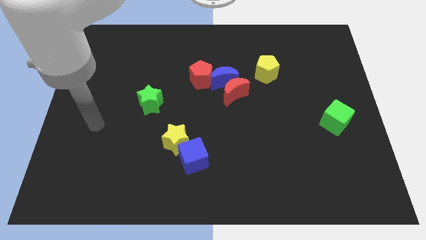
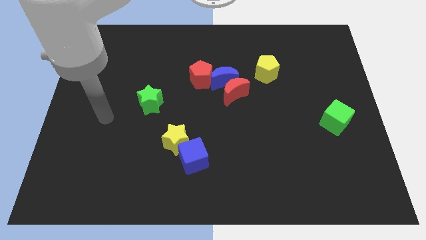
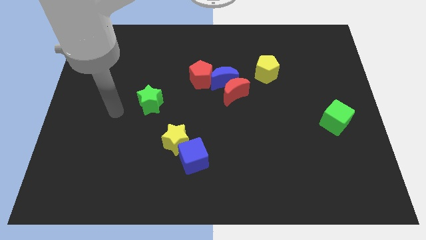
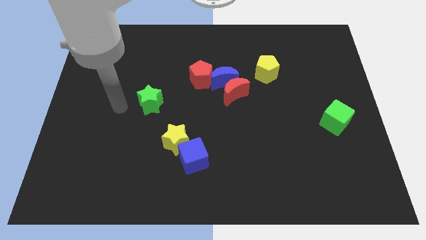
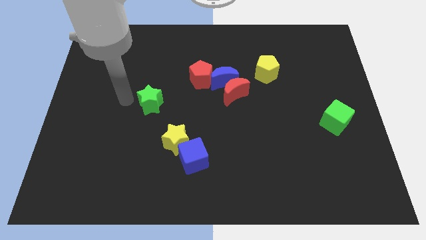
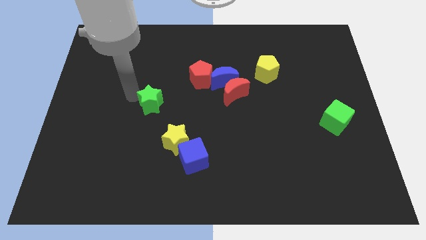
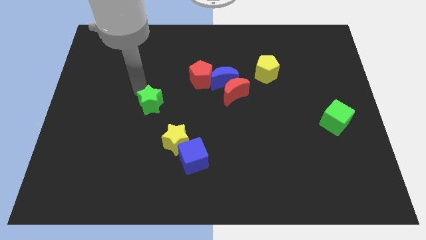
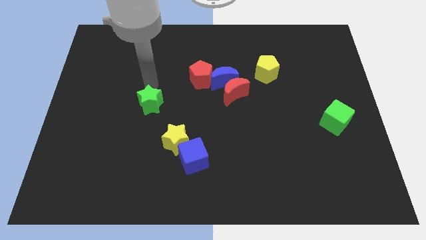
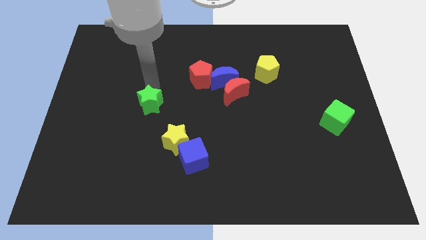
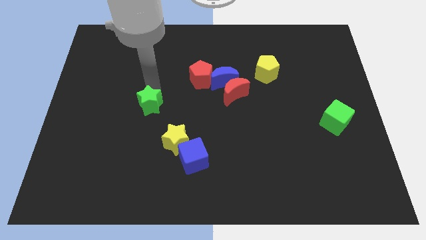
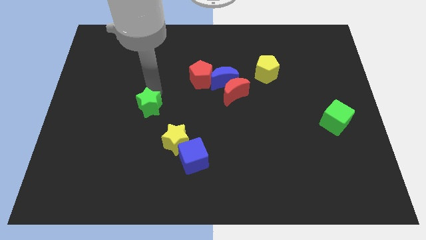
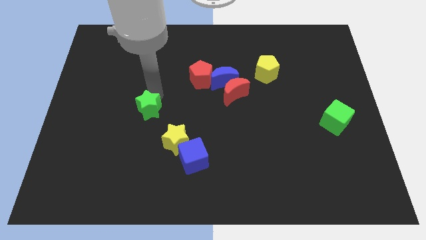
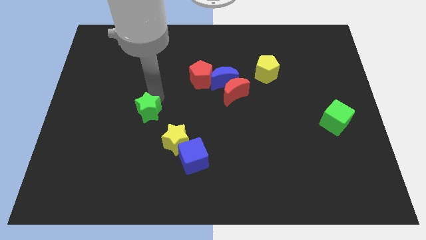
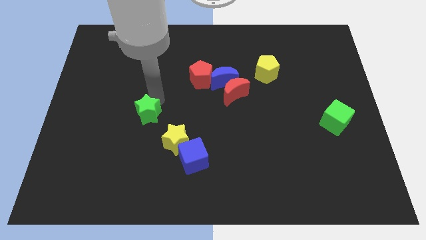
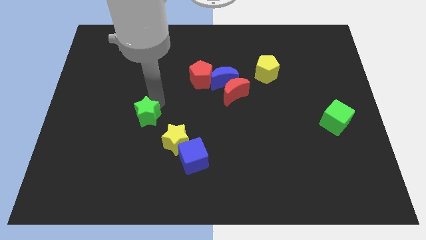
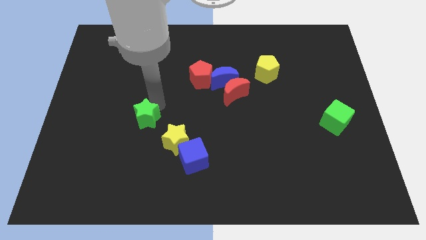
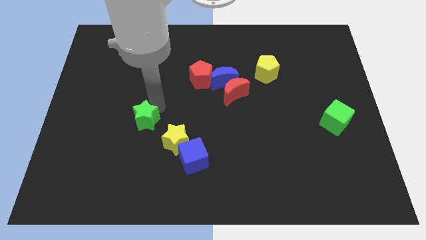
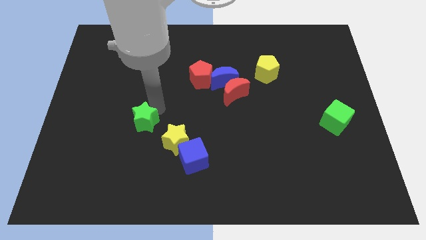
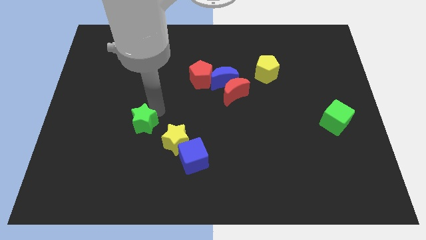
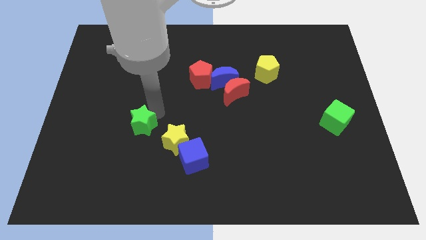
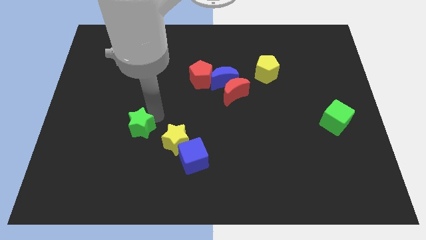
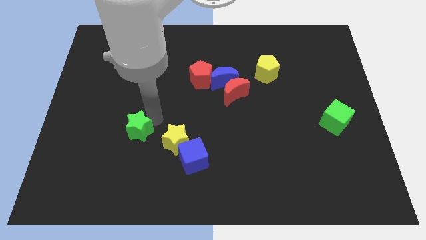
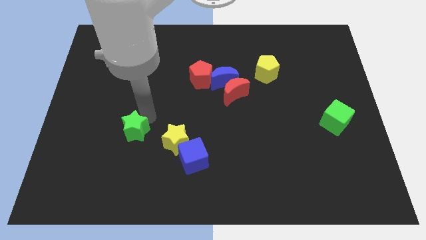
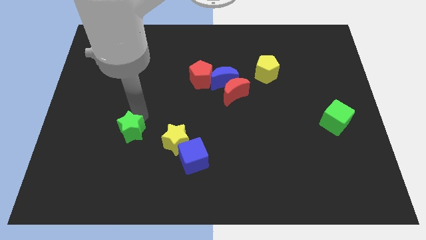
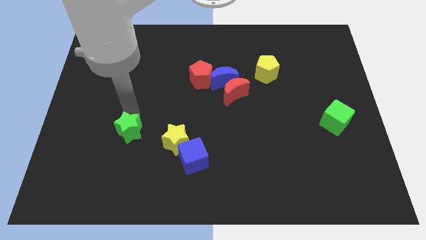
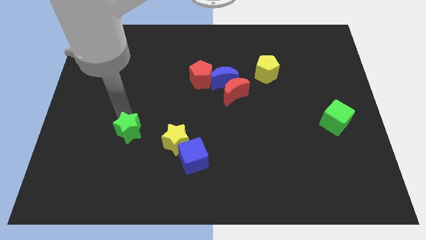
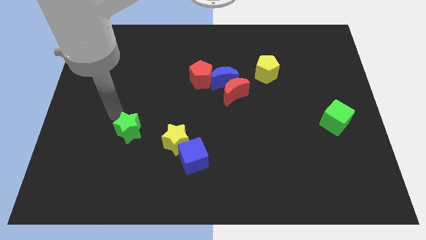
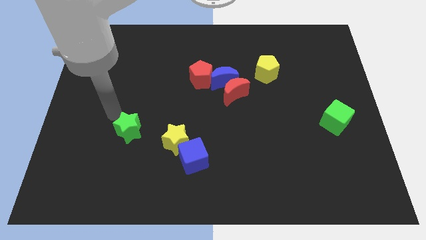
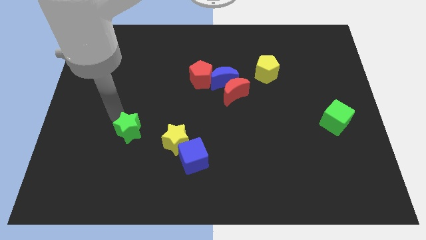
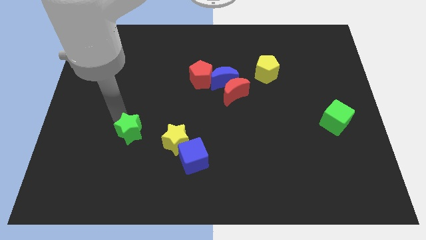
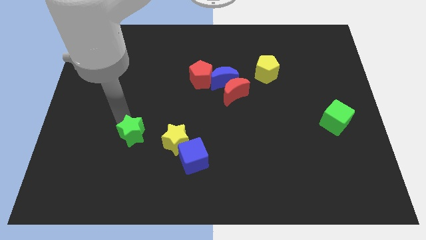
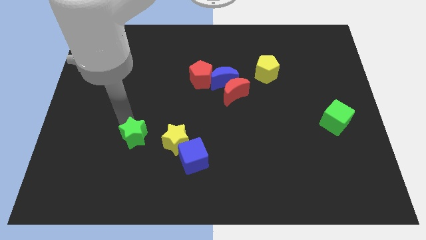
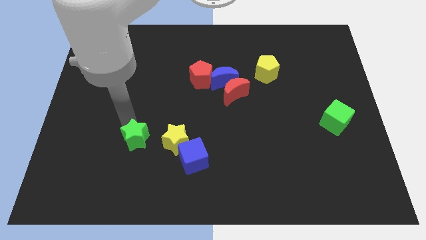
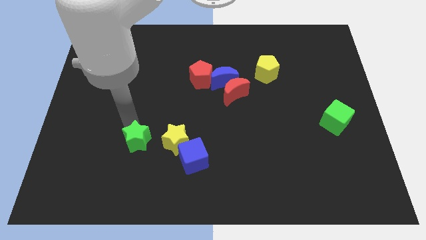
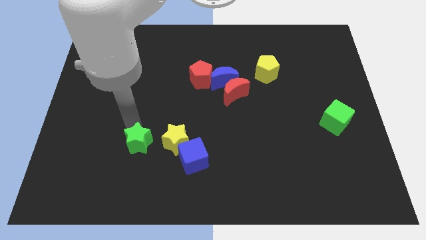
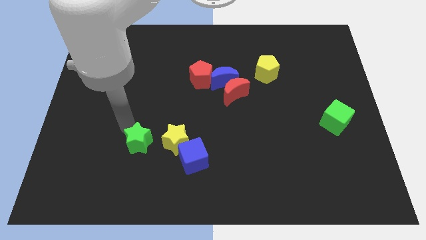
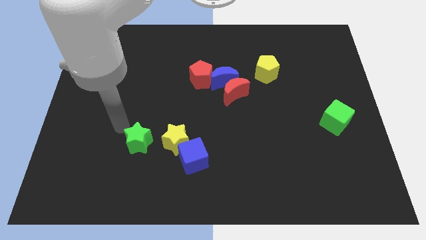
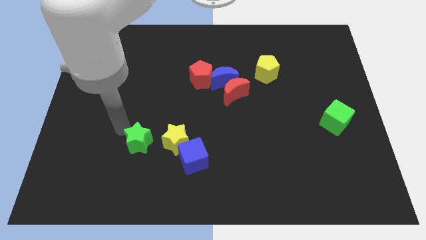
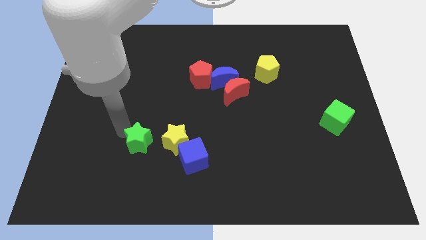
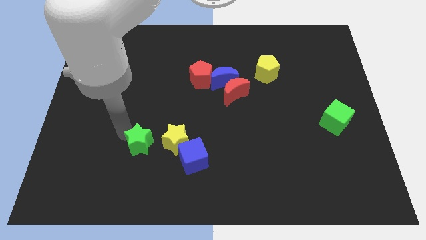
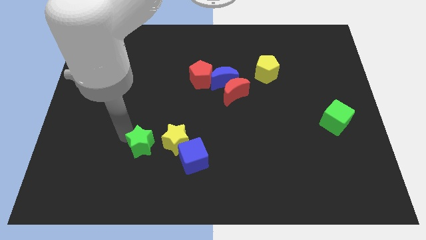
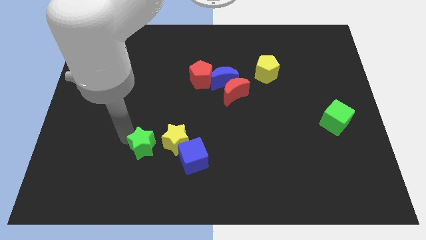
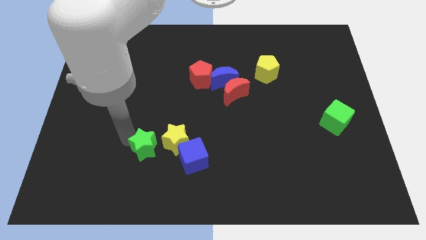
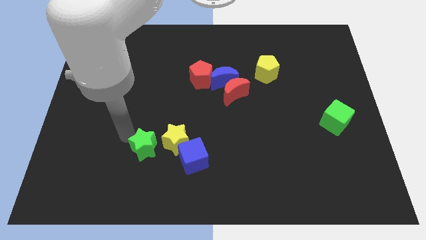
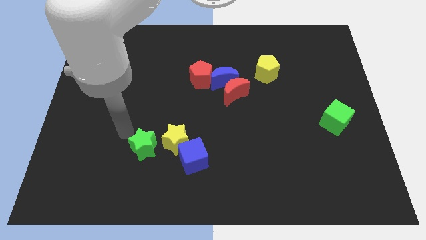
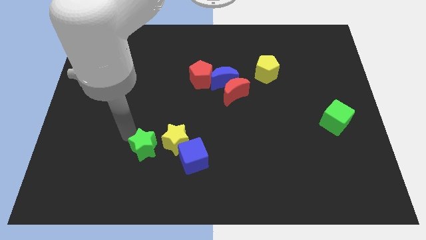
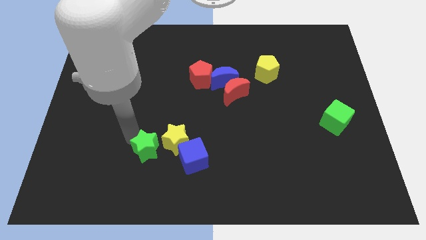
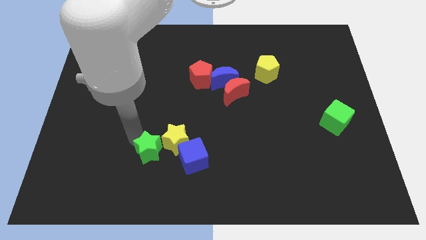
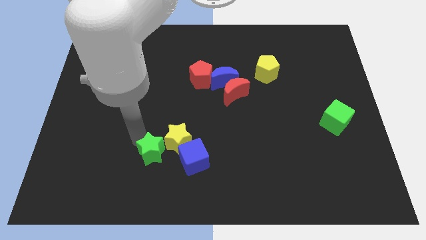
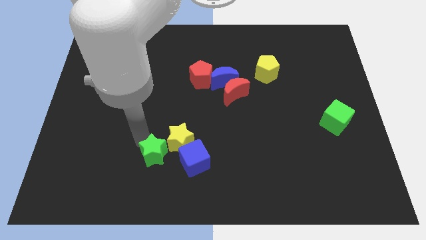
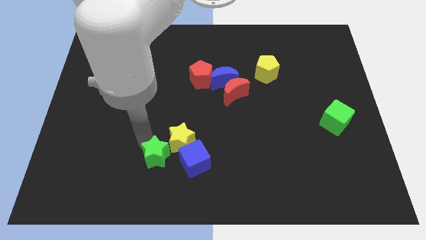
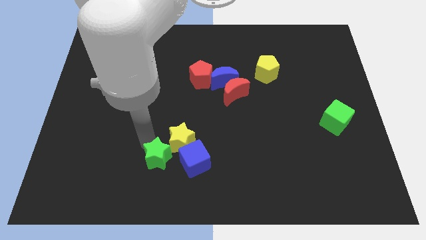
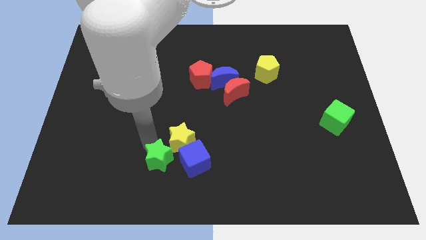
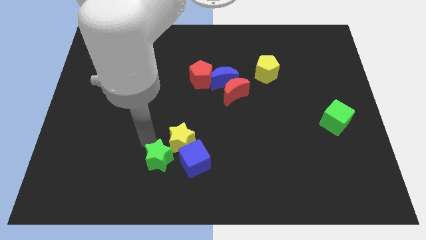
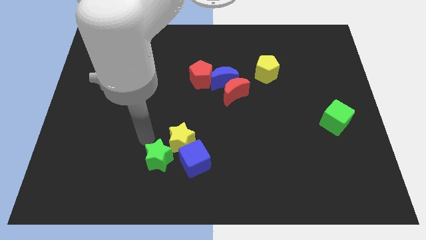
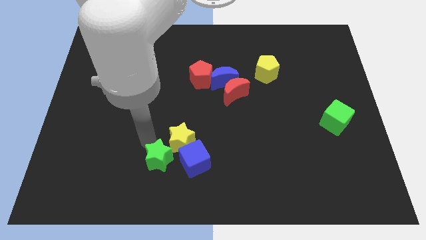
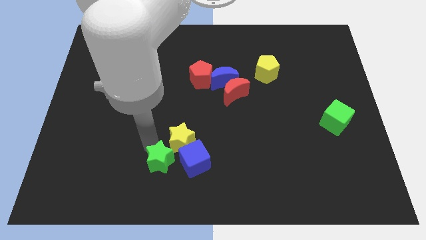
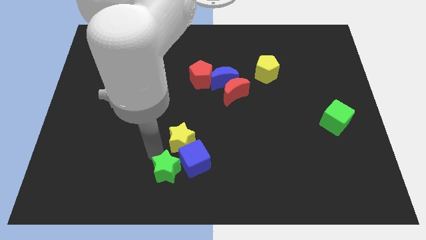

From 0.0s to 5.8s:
move the green star to the bottom

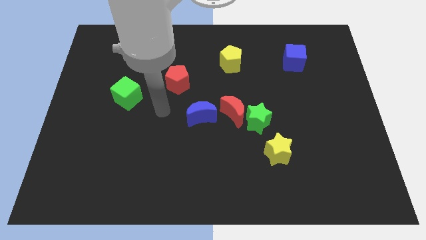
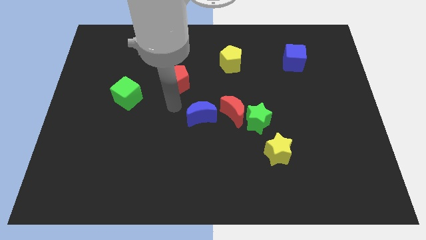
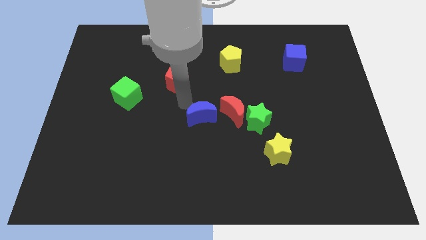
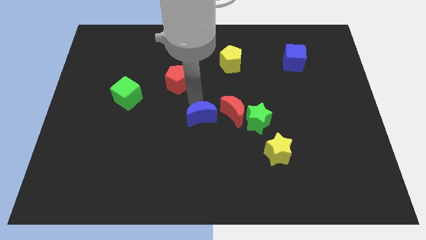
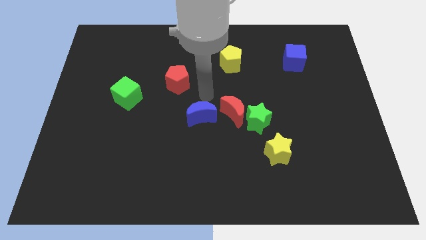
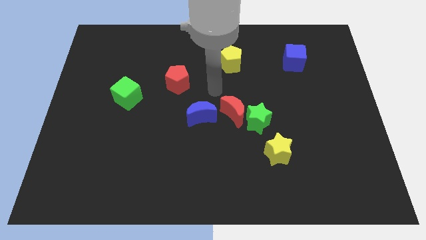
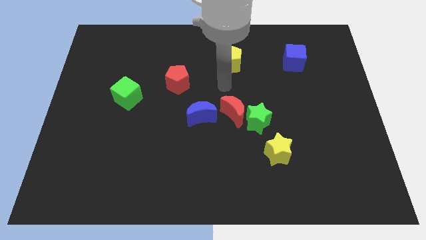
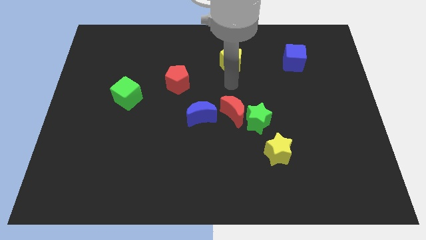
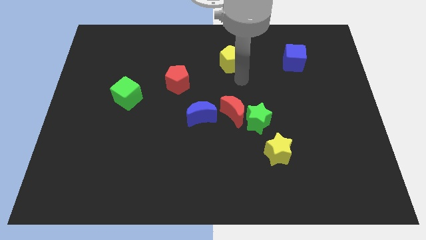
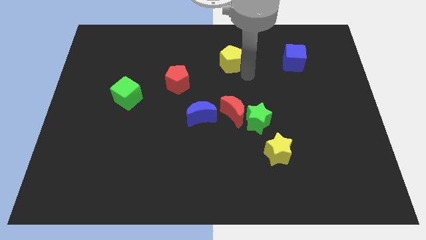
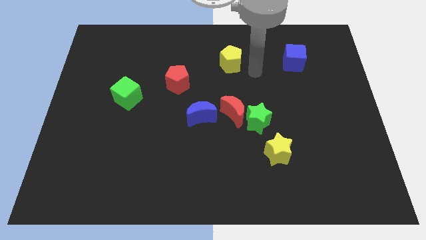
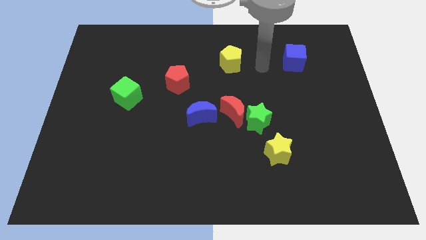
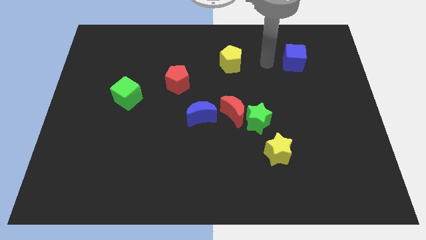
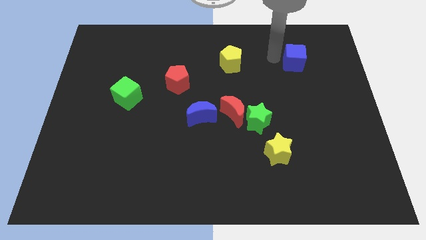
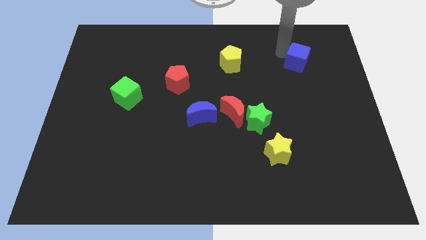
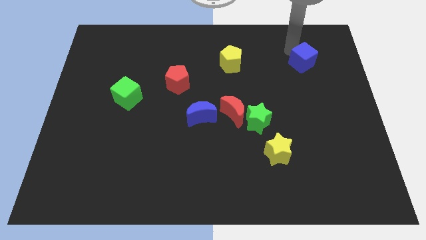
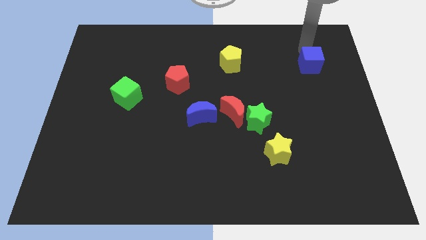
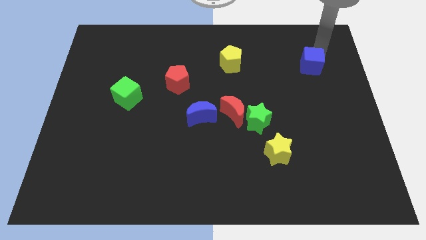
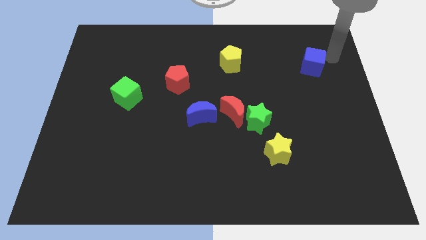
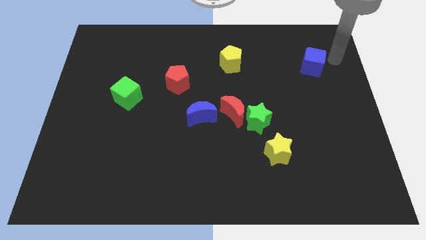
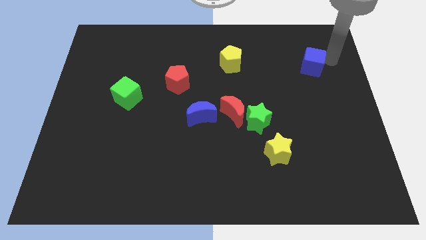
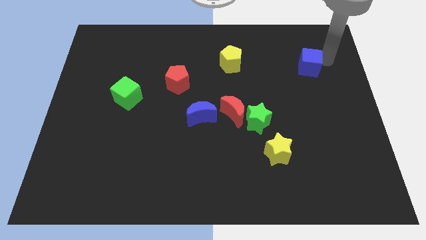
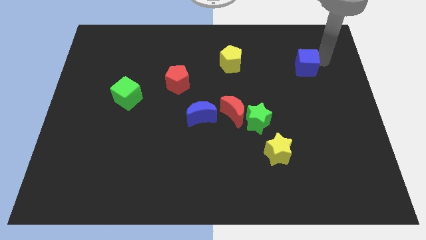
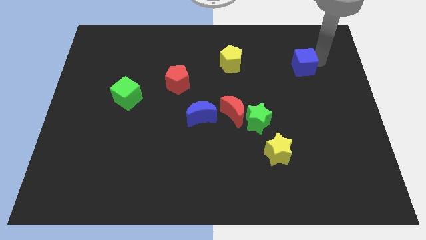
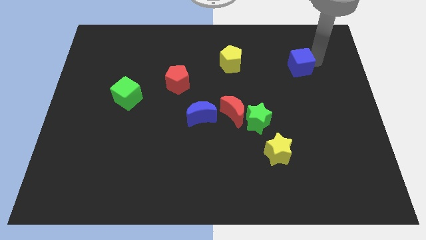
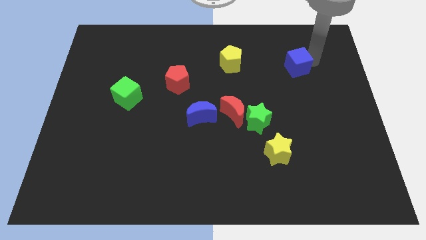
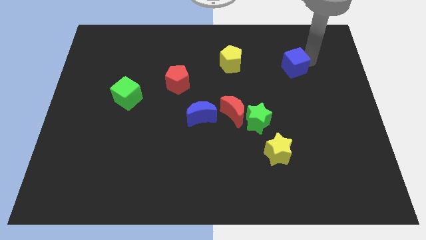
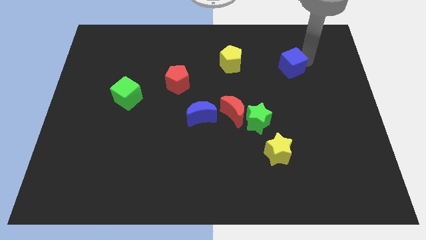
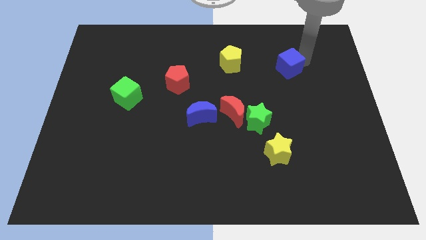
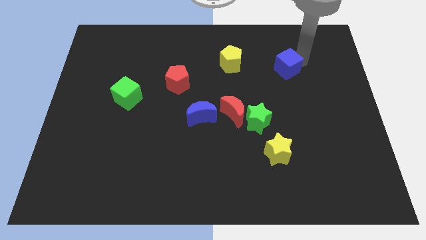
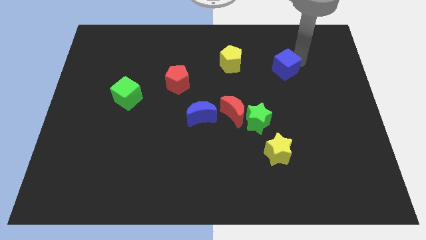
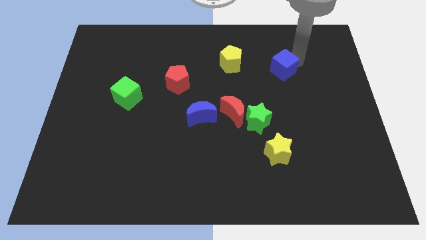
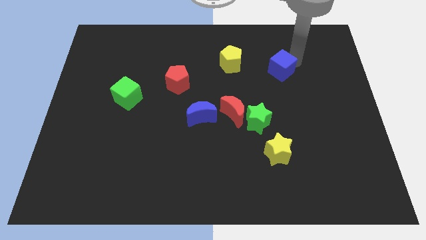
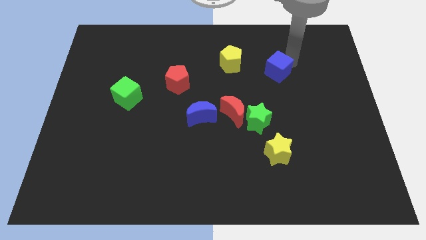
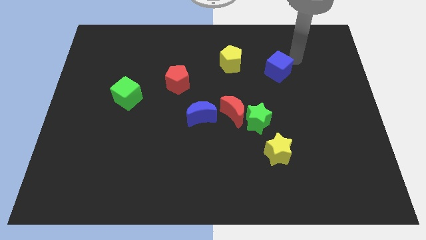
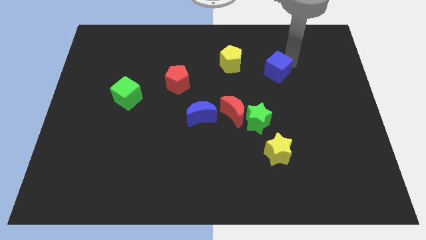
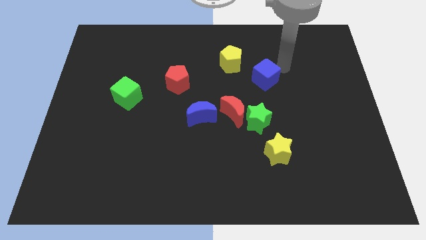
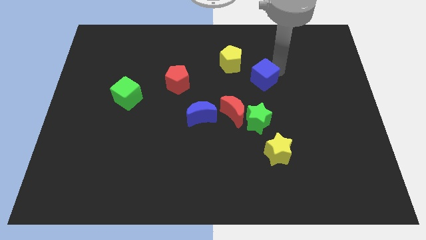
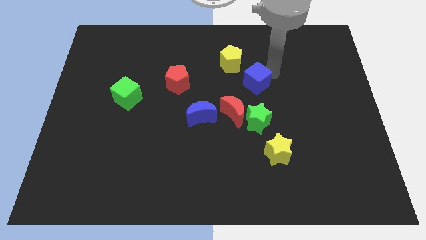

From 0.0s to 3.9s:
move the blue cube to the middle
